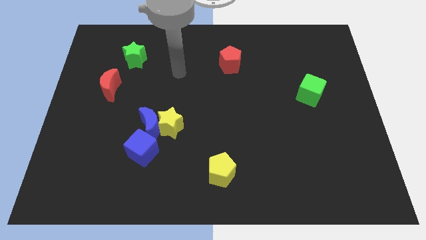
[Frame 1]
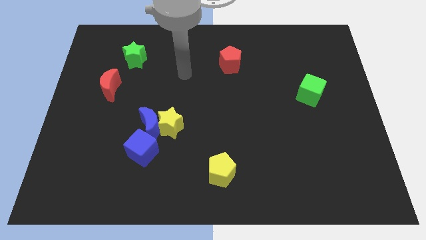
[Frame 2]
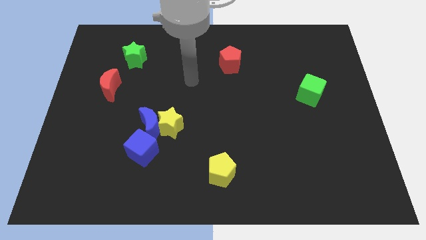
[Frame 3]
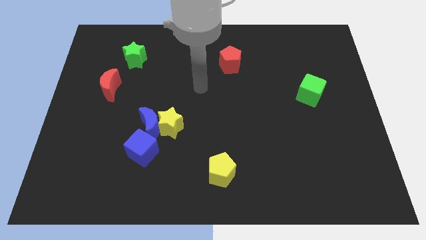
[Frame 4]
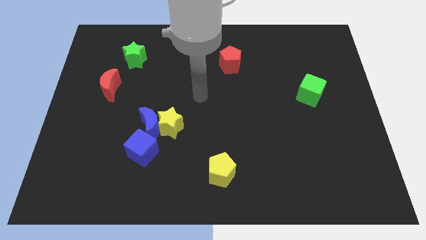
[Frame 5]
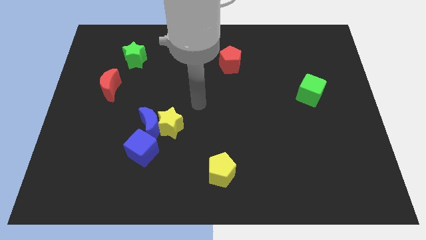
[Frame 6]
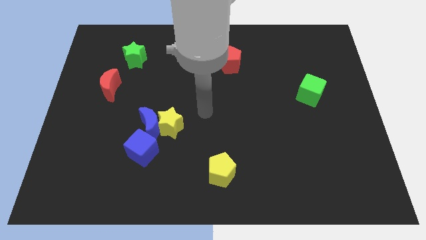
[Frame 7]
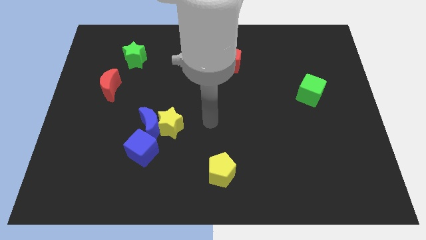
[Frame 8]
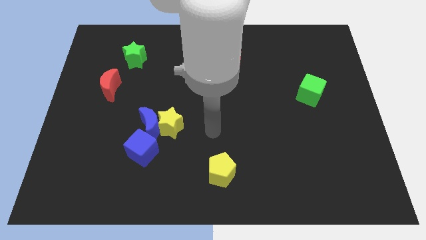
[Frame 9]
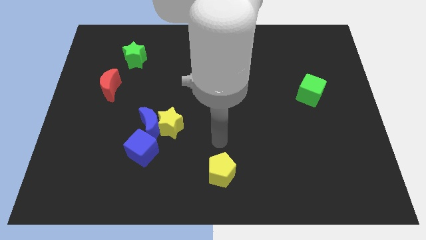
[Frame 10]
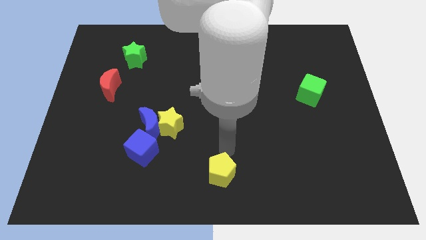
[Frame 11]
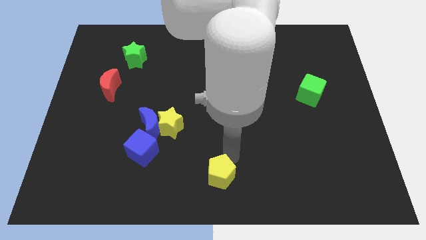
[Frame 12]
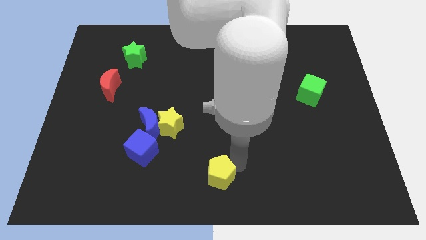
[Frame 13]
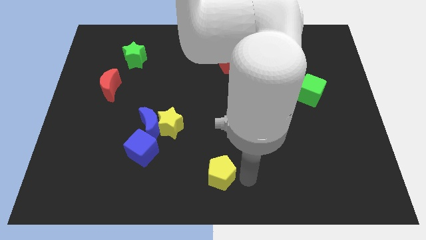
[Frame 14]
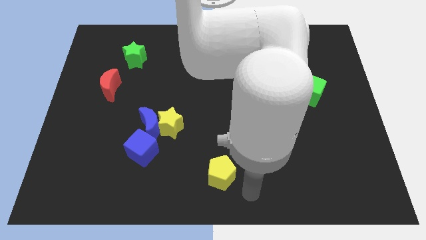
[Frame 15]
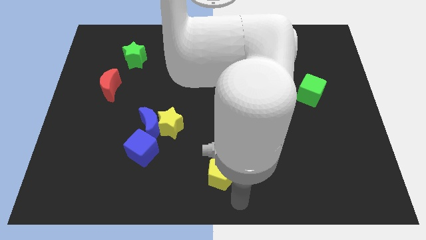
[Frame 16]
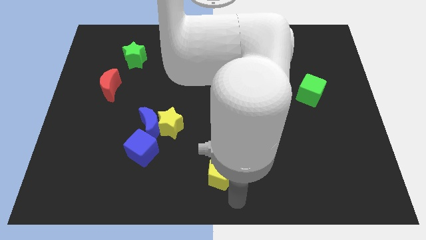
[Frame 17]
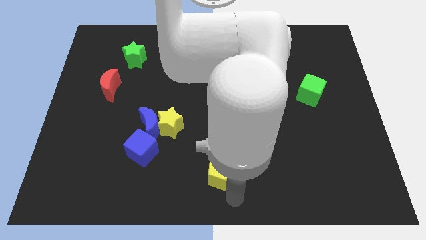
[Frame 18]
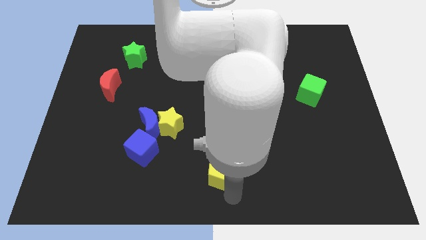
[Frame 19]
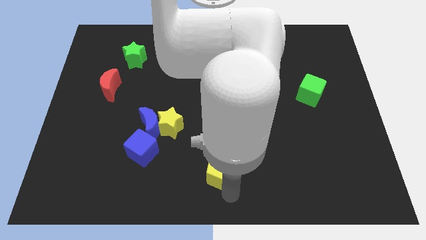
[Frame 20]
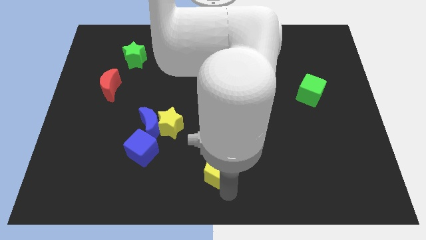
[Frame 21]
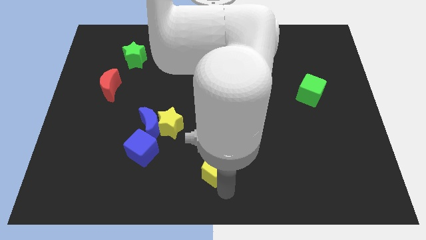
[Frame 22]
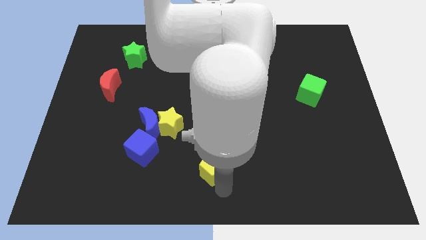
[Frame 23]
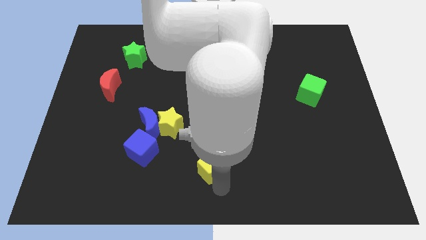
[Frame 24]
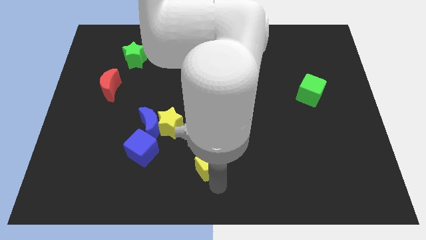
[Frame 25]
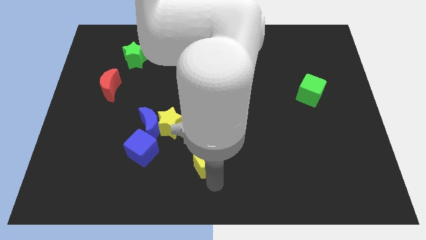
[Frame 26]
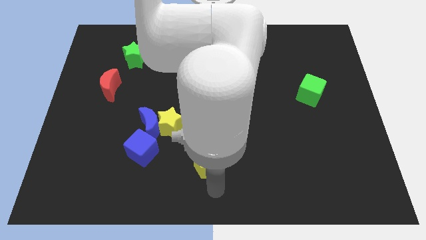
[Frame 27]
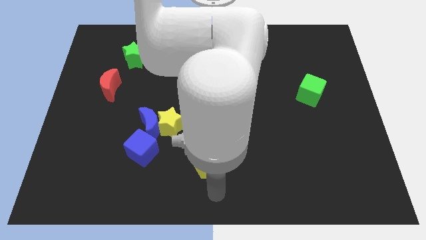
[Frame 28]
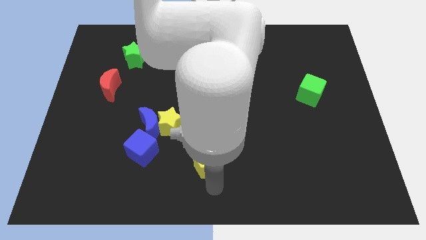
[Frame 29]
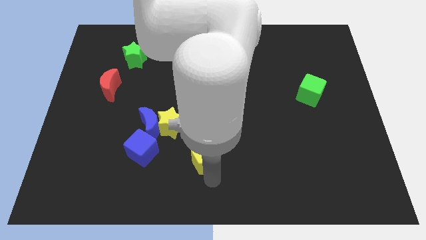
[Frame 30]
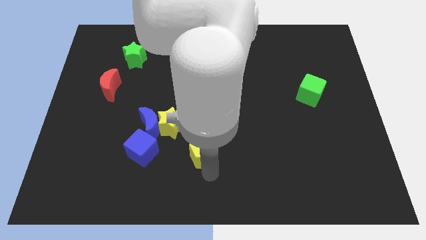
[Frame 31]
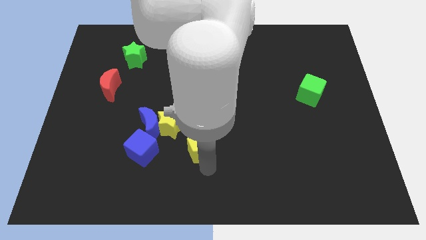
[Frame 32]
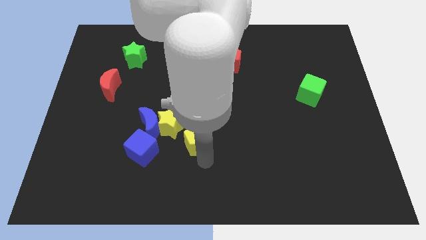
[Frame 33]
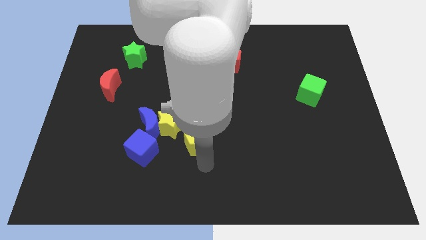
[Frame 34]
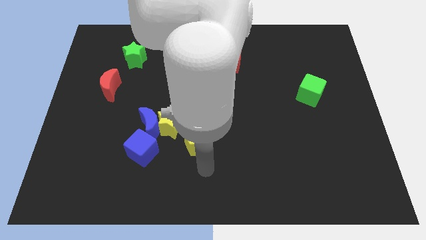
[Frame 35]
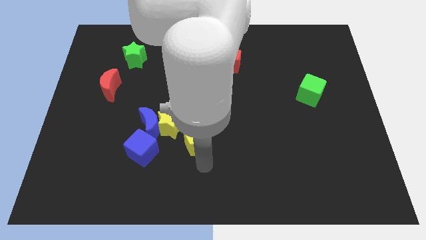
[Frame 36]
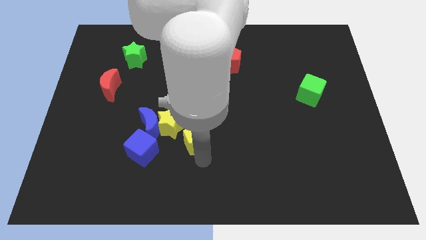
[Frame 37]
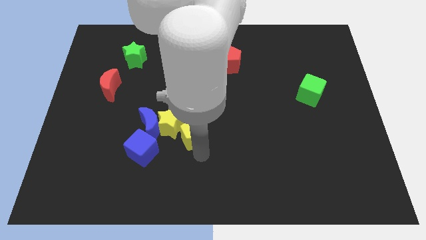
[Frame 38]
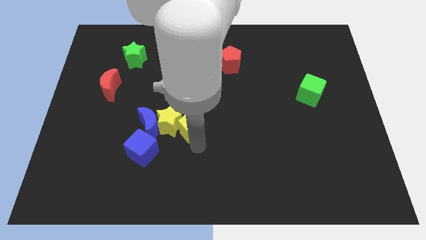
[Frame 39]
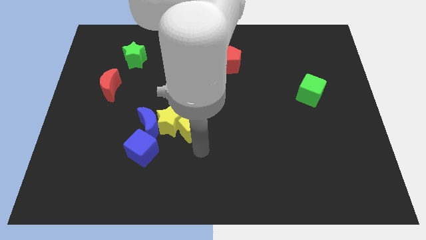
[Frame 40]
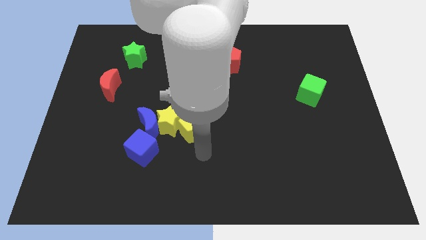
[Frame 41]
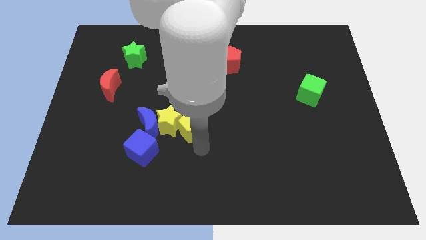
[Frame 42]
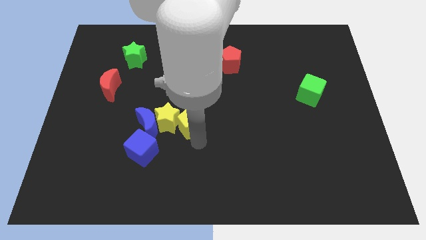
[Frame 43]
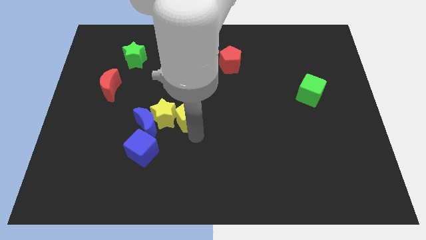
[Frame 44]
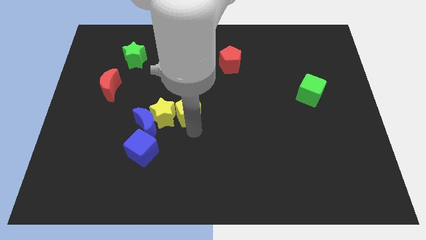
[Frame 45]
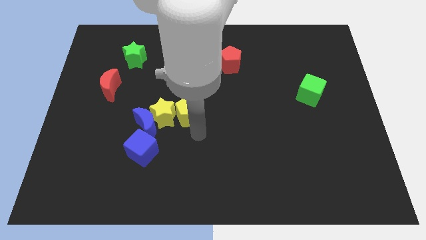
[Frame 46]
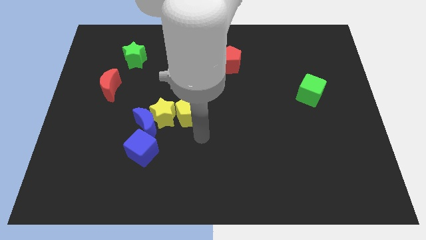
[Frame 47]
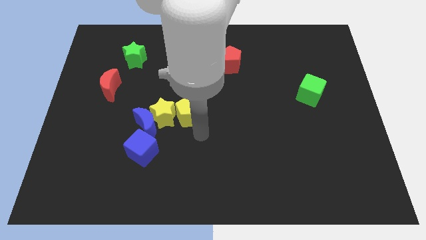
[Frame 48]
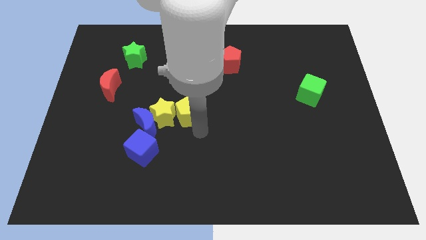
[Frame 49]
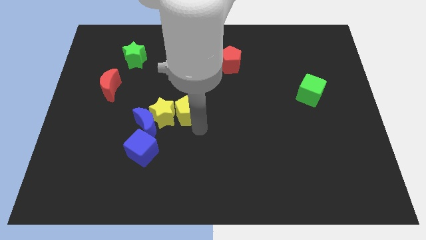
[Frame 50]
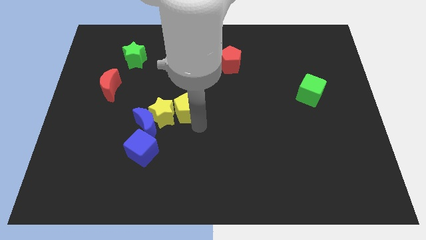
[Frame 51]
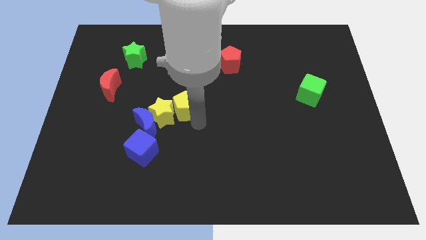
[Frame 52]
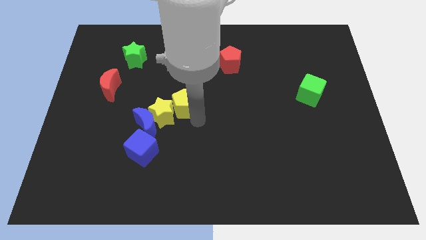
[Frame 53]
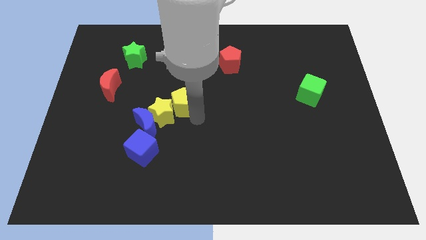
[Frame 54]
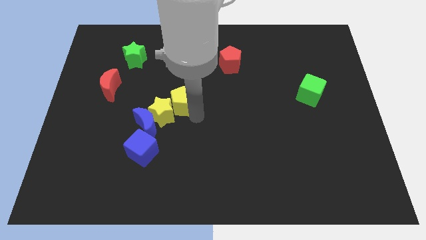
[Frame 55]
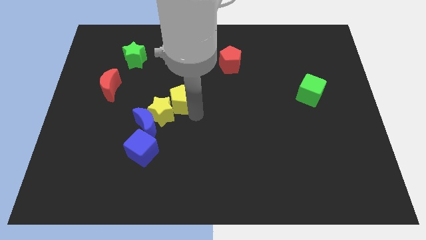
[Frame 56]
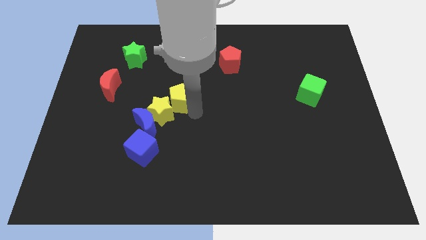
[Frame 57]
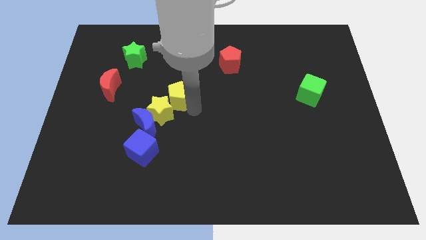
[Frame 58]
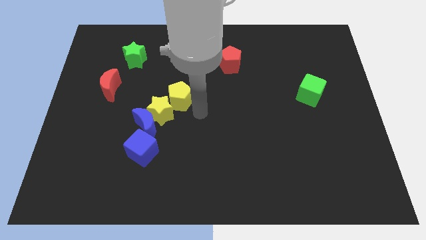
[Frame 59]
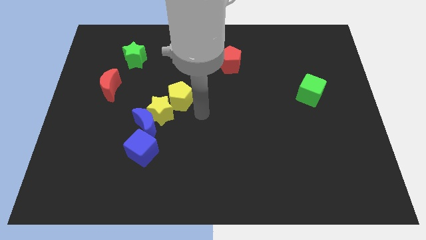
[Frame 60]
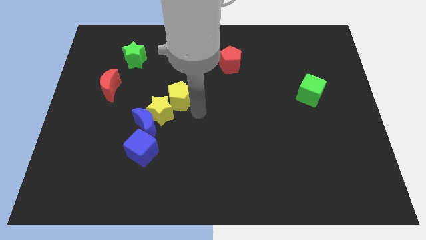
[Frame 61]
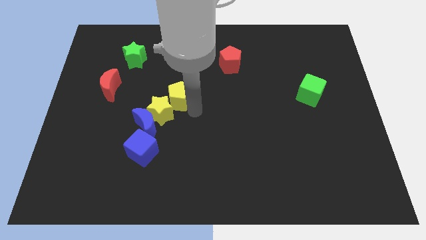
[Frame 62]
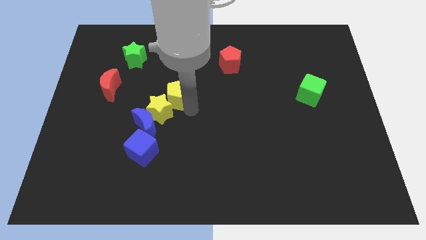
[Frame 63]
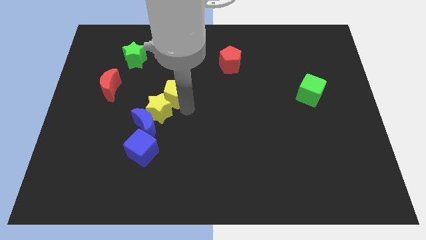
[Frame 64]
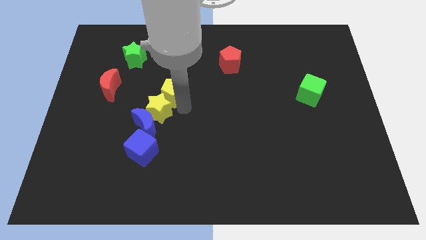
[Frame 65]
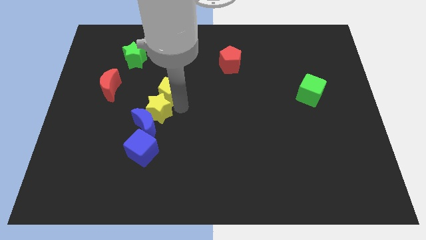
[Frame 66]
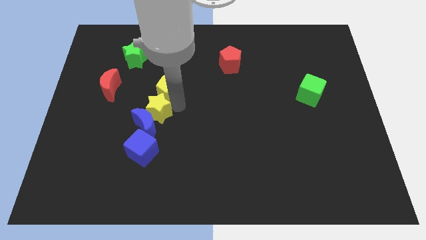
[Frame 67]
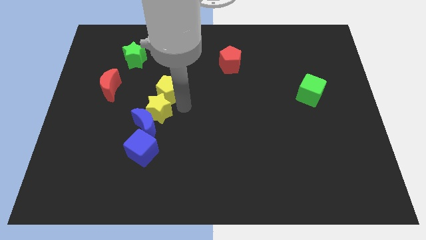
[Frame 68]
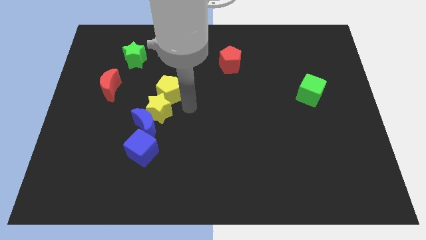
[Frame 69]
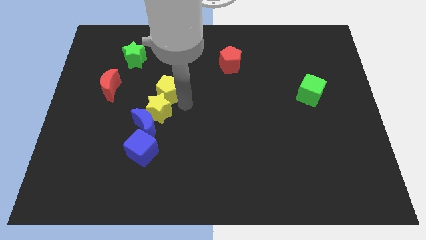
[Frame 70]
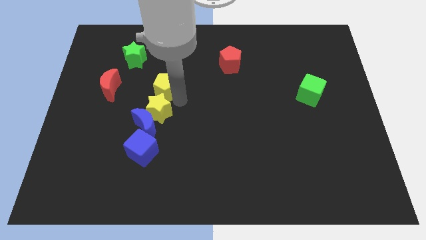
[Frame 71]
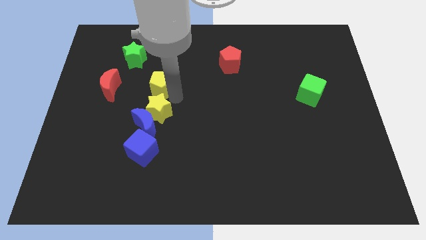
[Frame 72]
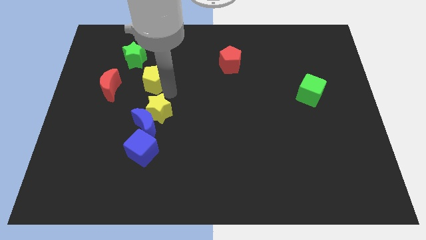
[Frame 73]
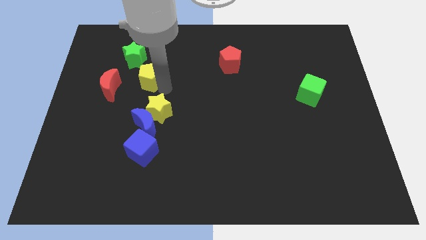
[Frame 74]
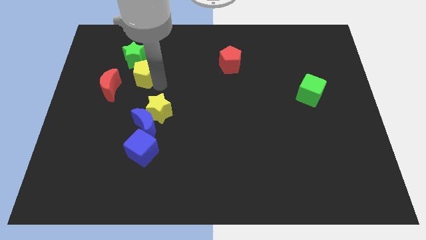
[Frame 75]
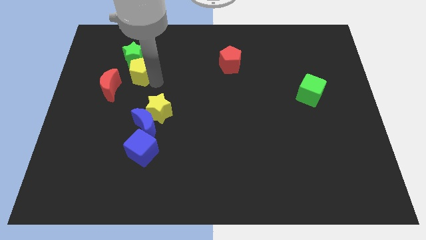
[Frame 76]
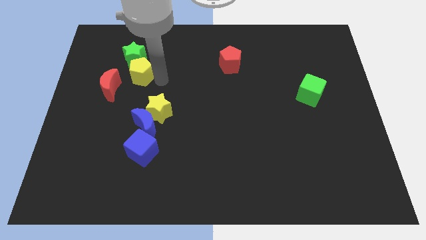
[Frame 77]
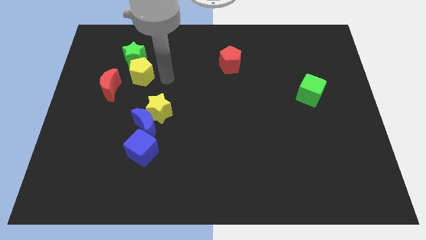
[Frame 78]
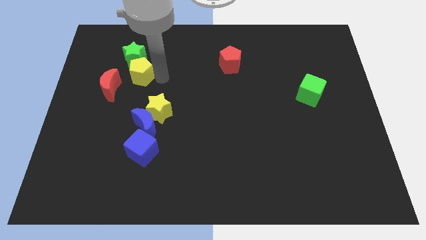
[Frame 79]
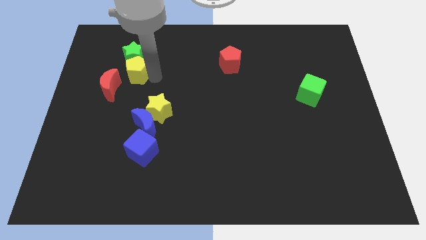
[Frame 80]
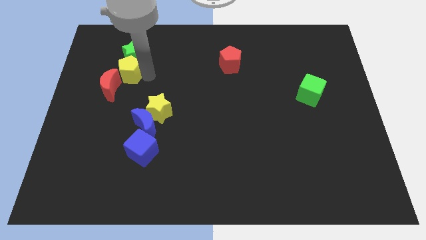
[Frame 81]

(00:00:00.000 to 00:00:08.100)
put the yellow pentagon to the bottom left of the green star
